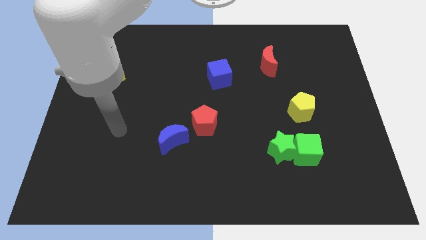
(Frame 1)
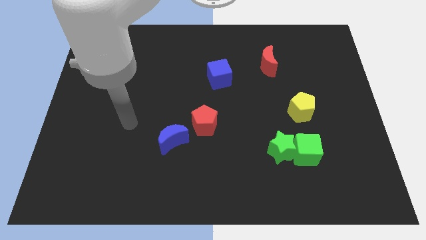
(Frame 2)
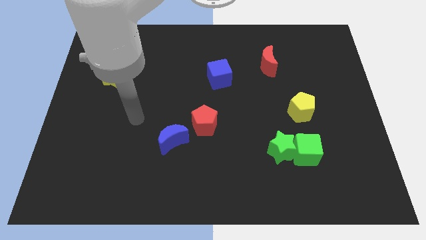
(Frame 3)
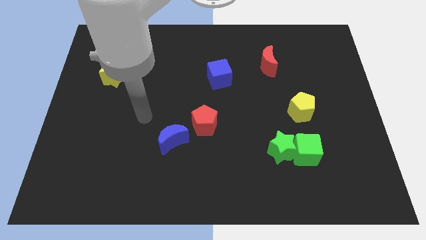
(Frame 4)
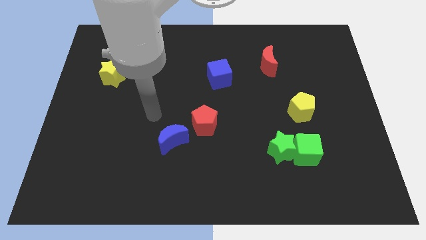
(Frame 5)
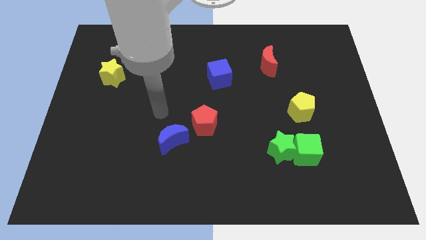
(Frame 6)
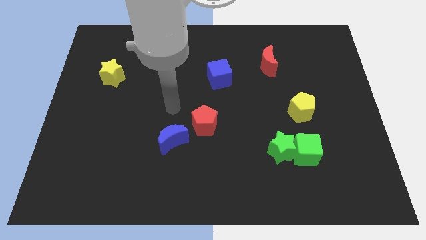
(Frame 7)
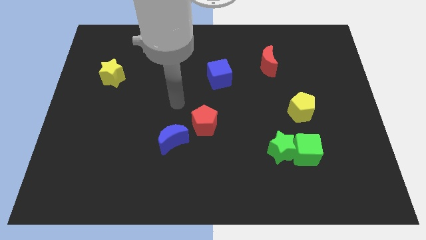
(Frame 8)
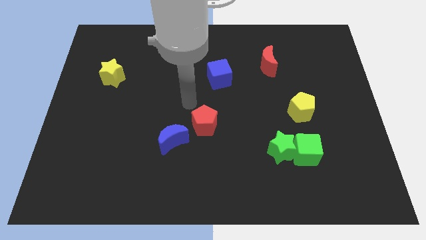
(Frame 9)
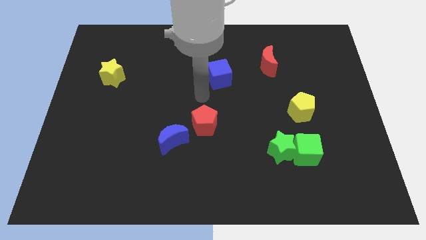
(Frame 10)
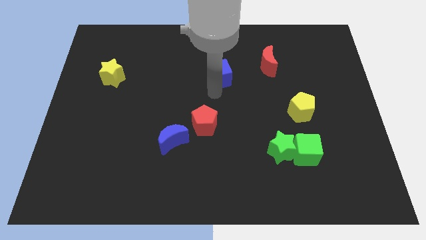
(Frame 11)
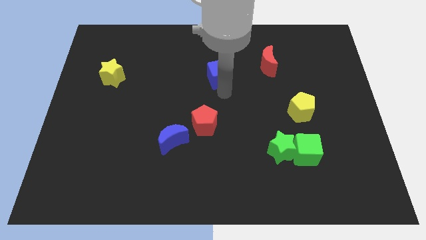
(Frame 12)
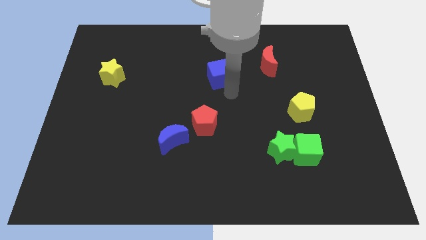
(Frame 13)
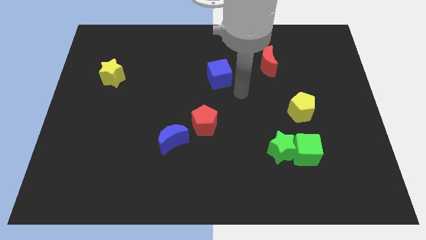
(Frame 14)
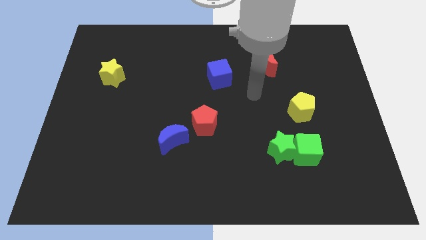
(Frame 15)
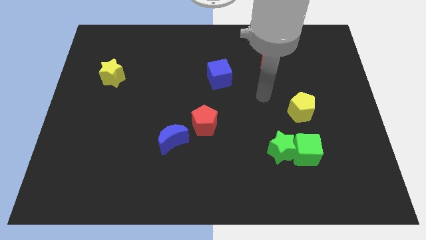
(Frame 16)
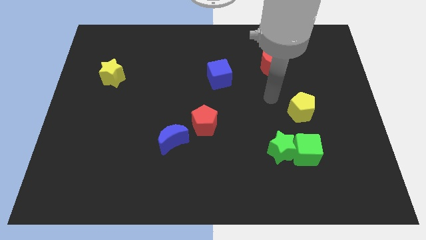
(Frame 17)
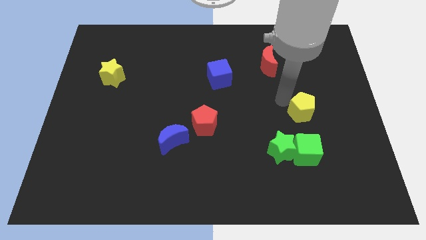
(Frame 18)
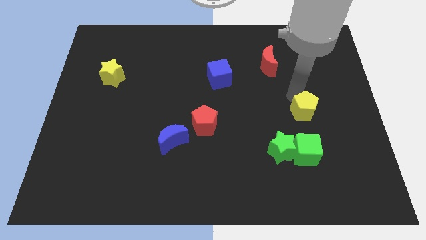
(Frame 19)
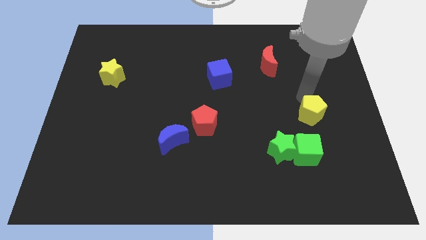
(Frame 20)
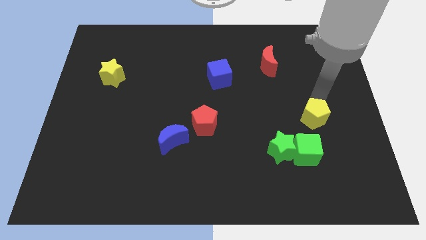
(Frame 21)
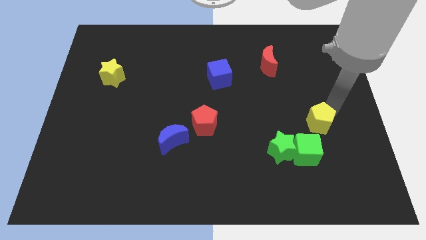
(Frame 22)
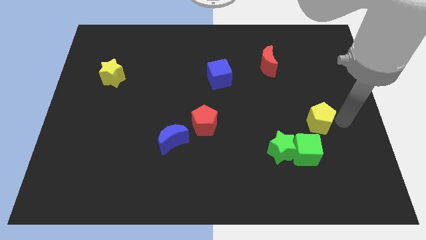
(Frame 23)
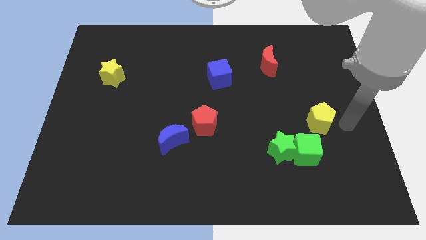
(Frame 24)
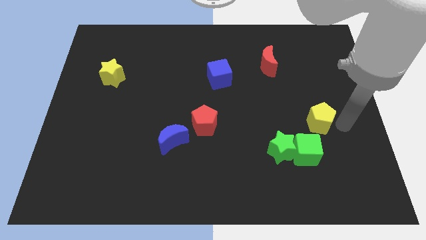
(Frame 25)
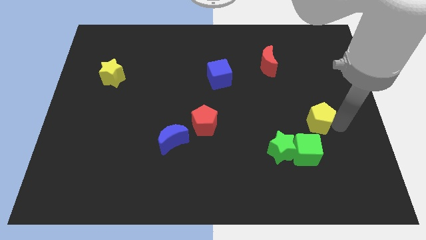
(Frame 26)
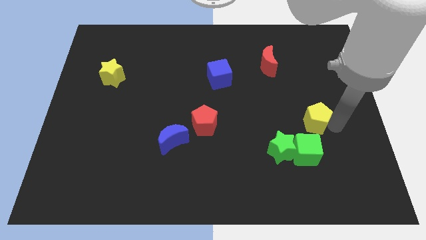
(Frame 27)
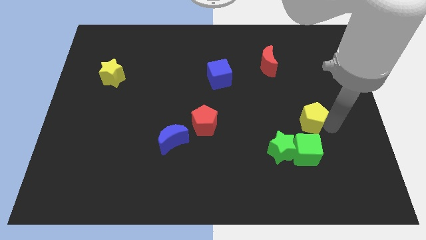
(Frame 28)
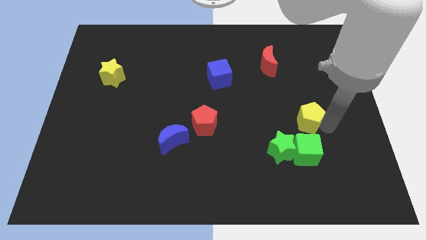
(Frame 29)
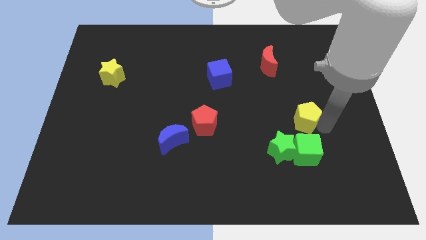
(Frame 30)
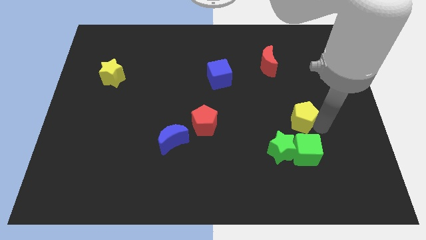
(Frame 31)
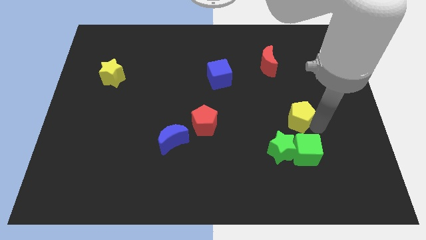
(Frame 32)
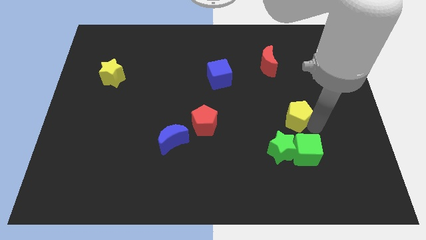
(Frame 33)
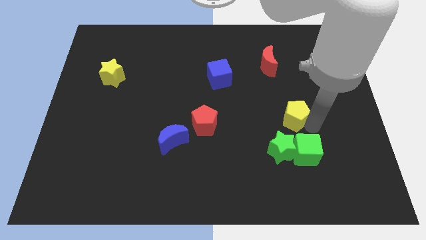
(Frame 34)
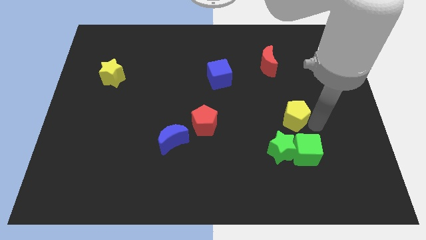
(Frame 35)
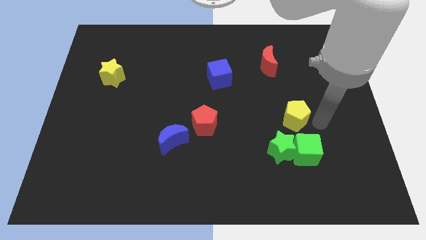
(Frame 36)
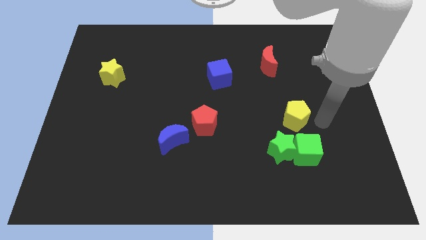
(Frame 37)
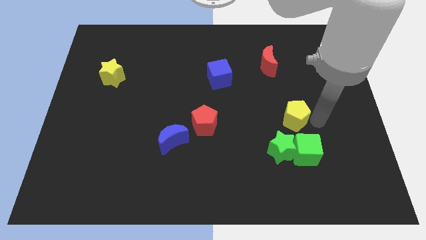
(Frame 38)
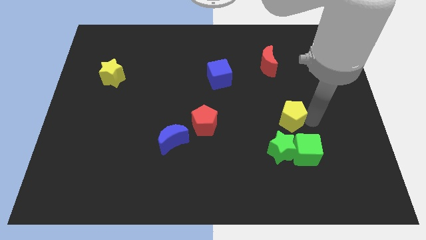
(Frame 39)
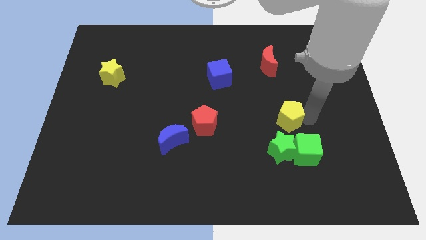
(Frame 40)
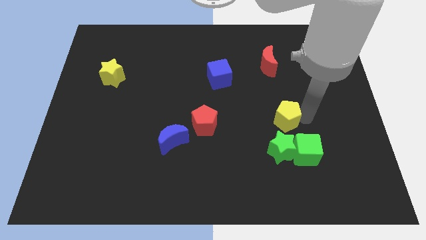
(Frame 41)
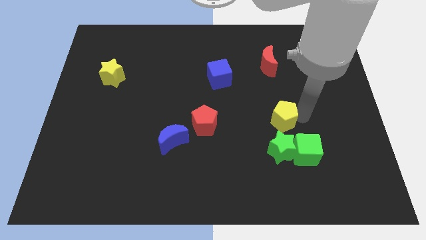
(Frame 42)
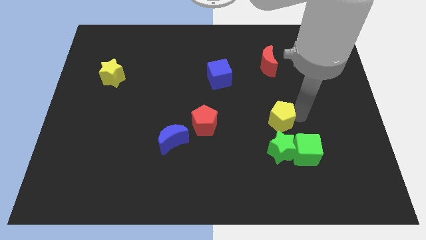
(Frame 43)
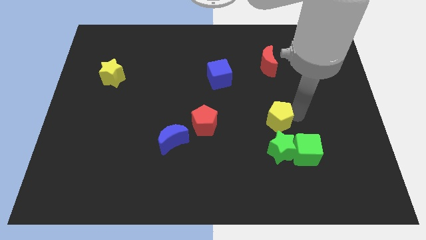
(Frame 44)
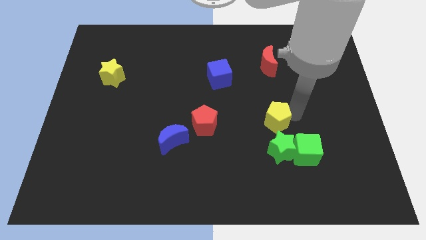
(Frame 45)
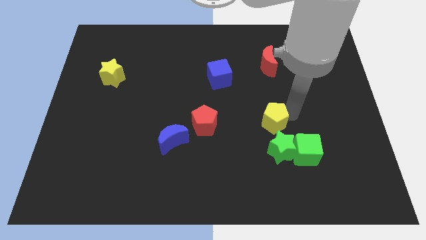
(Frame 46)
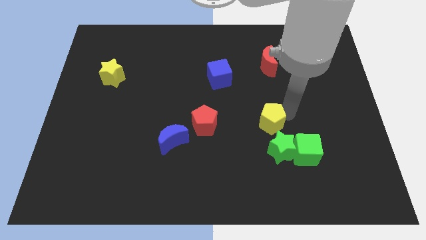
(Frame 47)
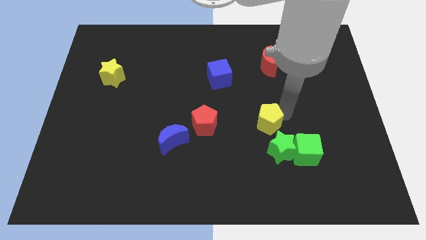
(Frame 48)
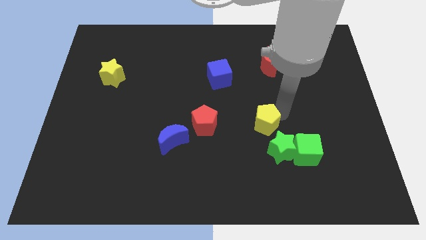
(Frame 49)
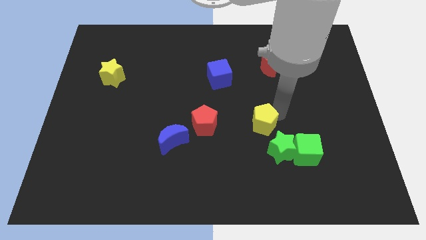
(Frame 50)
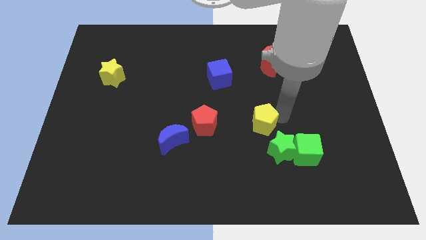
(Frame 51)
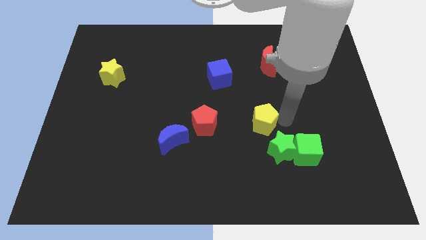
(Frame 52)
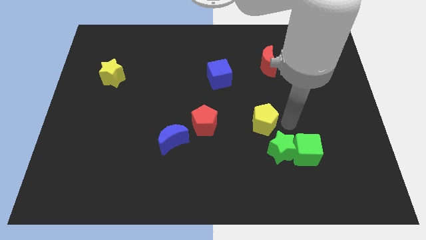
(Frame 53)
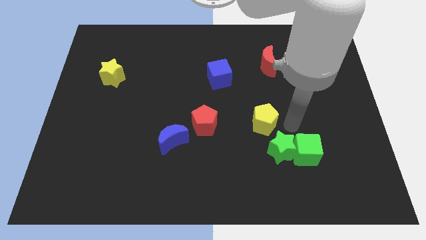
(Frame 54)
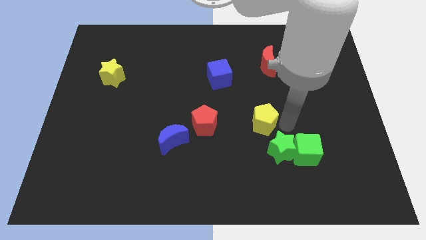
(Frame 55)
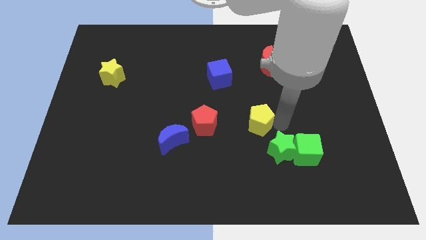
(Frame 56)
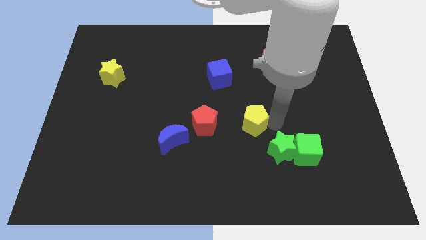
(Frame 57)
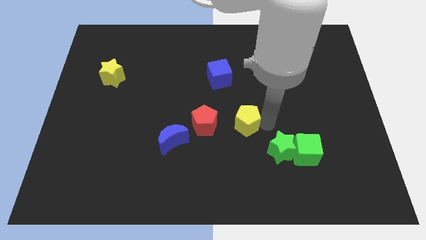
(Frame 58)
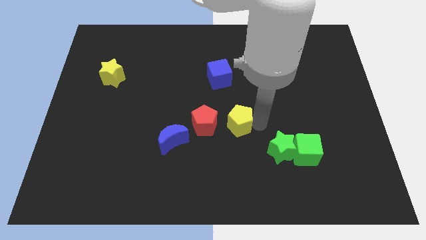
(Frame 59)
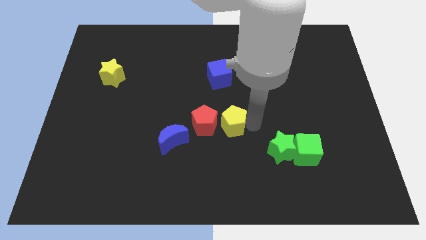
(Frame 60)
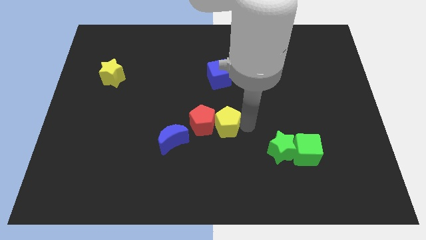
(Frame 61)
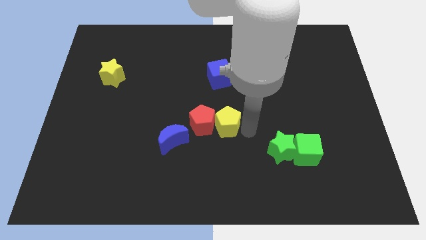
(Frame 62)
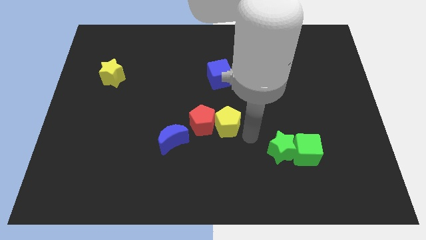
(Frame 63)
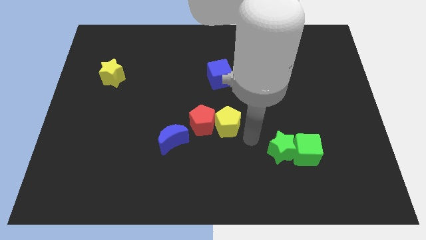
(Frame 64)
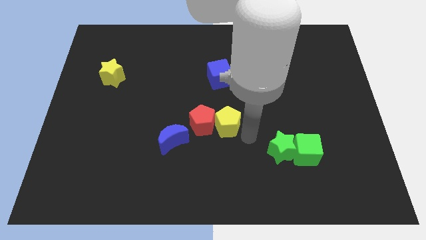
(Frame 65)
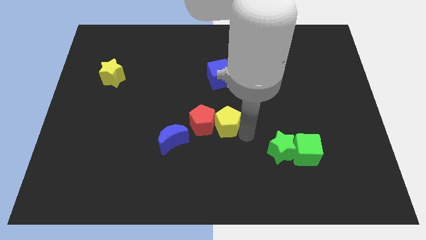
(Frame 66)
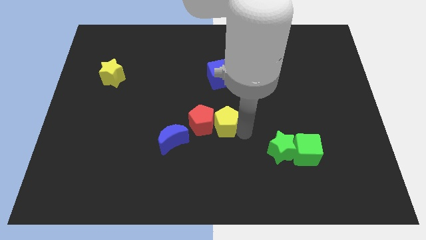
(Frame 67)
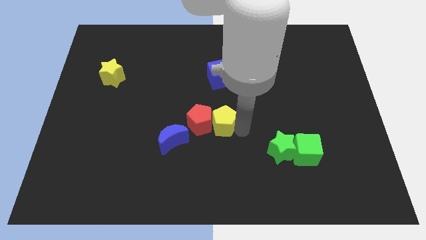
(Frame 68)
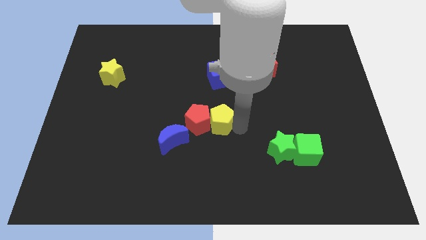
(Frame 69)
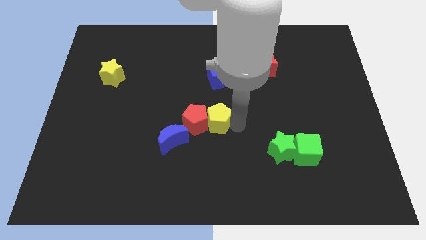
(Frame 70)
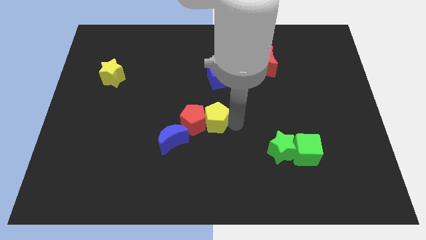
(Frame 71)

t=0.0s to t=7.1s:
move the yellow pentagon left

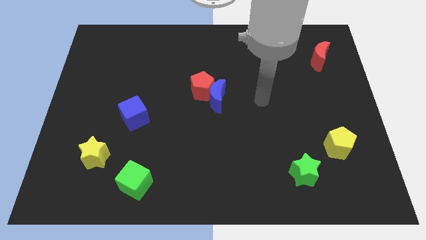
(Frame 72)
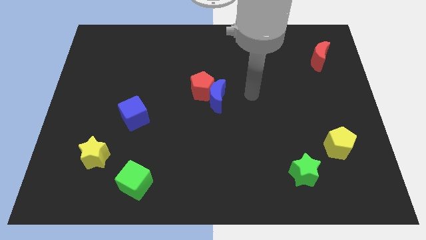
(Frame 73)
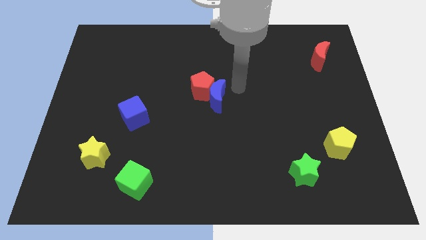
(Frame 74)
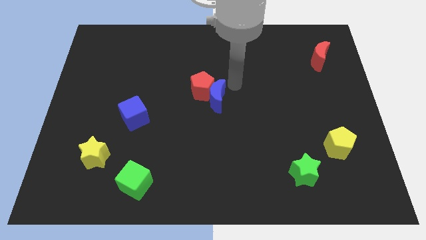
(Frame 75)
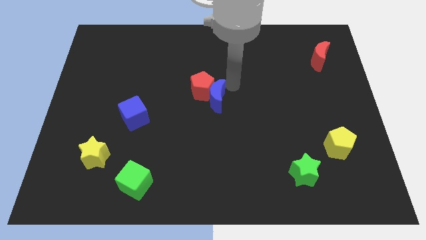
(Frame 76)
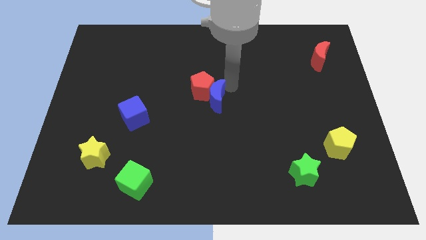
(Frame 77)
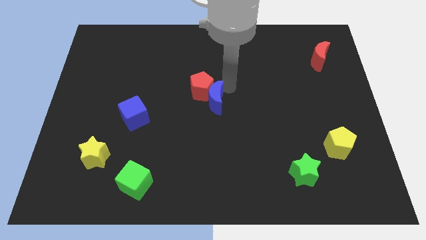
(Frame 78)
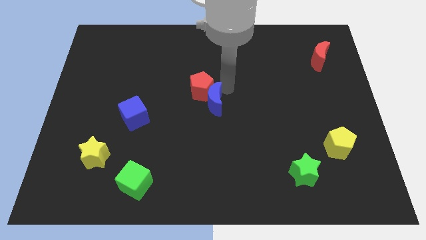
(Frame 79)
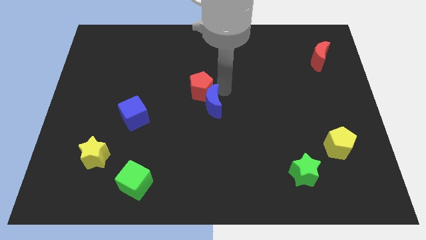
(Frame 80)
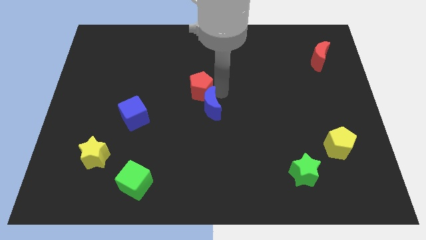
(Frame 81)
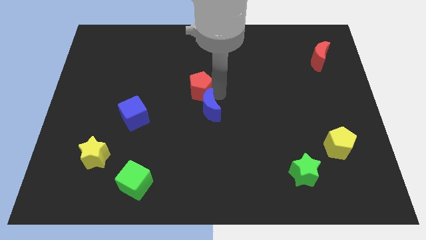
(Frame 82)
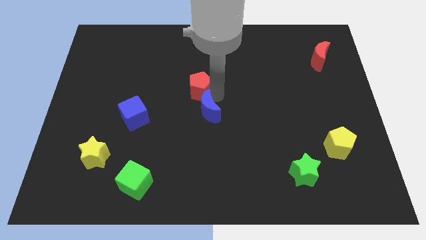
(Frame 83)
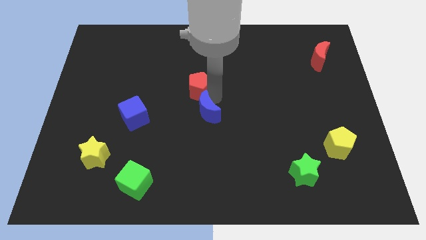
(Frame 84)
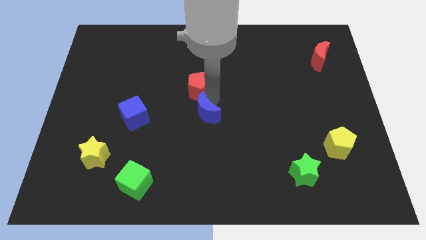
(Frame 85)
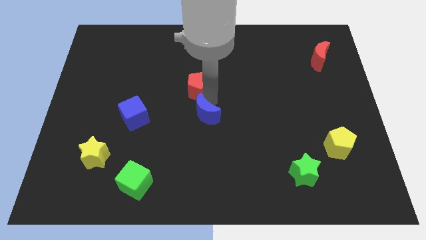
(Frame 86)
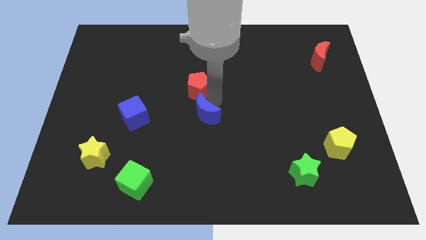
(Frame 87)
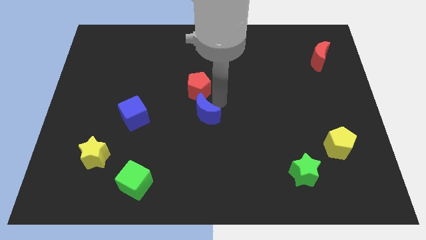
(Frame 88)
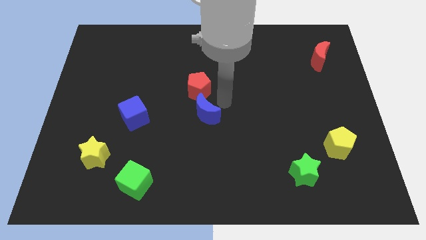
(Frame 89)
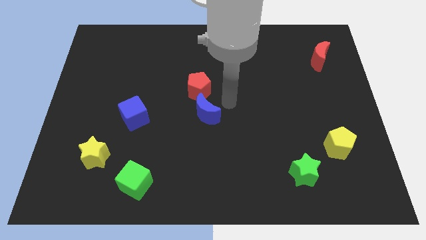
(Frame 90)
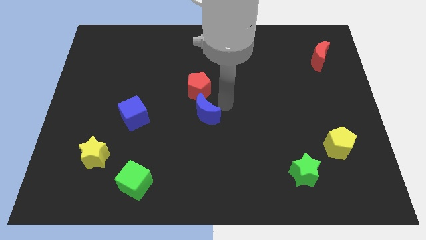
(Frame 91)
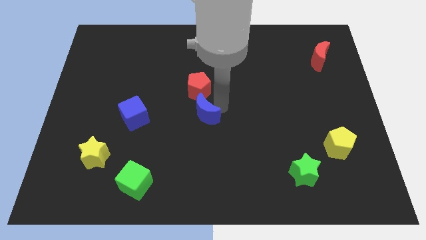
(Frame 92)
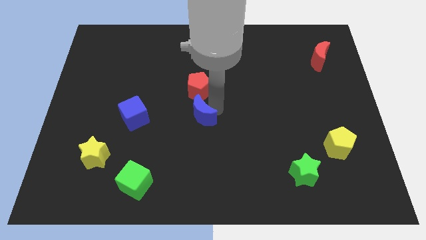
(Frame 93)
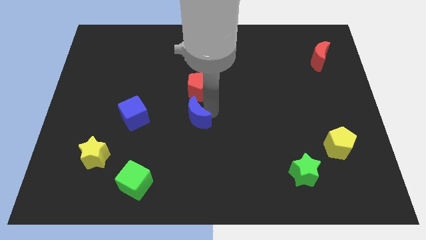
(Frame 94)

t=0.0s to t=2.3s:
push the blue moon downwards and left diagonally somewhat
